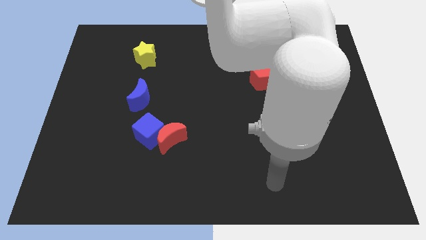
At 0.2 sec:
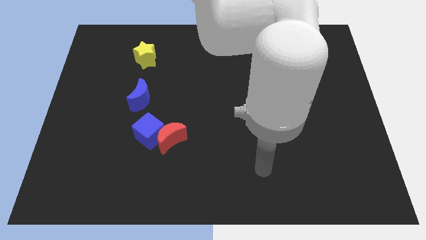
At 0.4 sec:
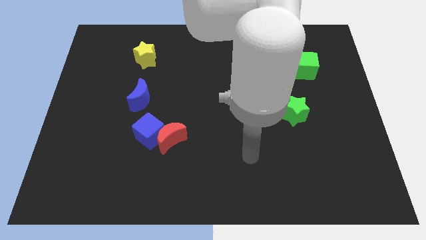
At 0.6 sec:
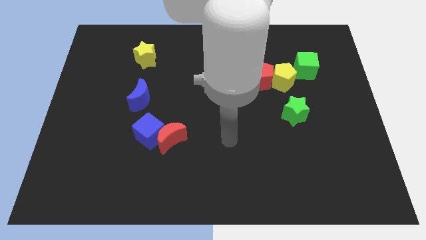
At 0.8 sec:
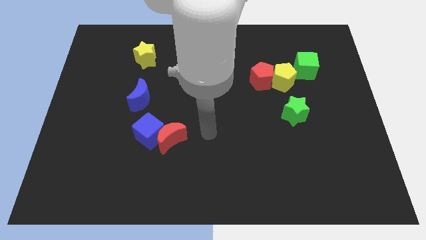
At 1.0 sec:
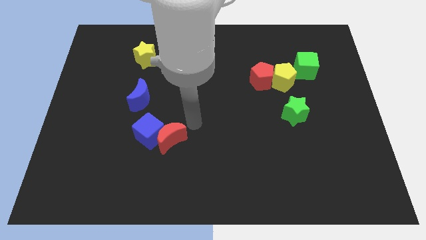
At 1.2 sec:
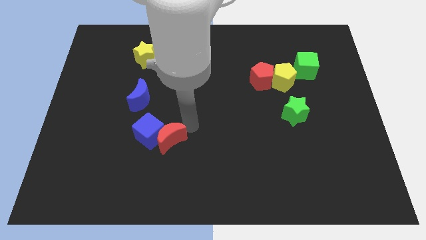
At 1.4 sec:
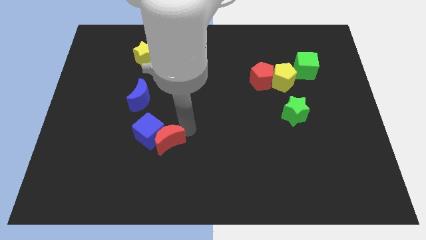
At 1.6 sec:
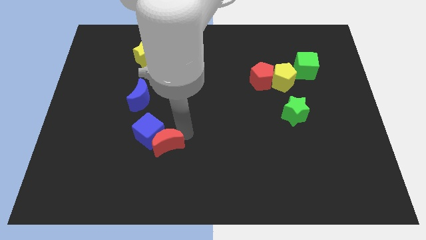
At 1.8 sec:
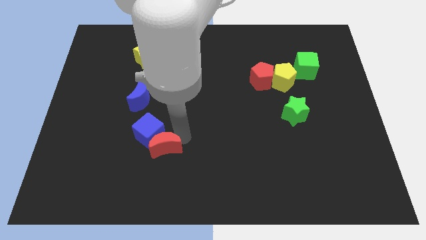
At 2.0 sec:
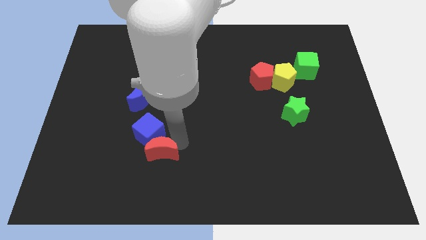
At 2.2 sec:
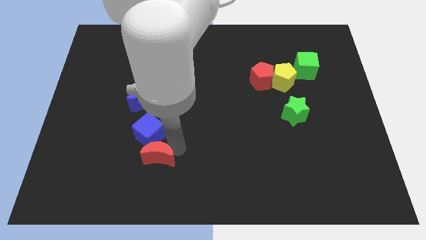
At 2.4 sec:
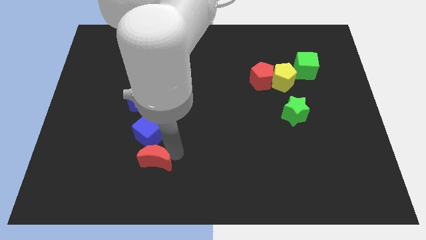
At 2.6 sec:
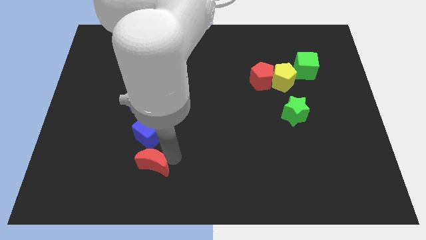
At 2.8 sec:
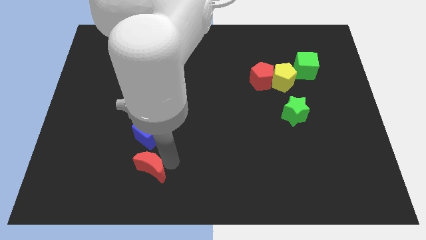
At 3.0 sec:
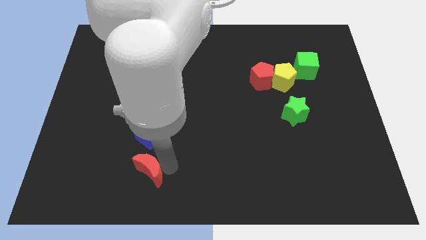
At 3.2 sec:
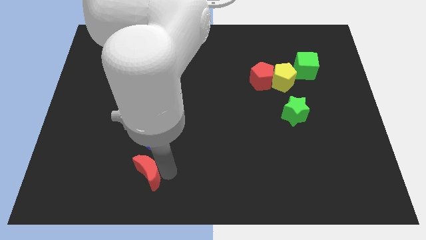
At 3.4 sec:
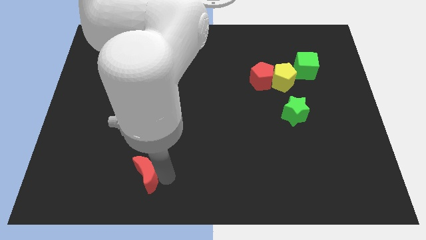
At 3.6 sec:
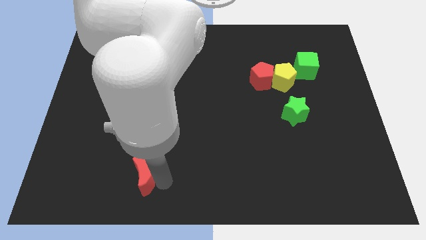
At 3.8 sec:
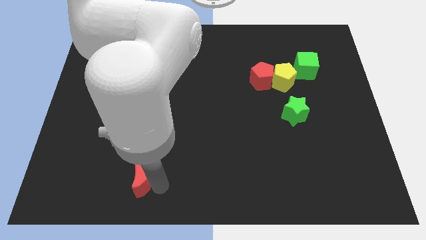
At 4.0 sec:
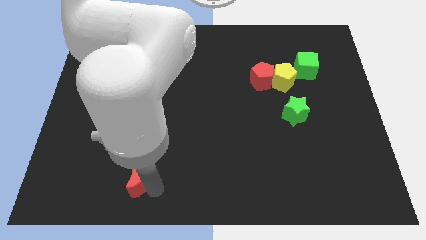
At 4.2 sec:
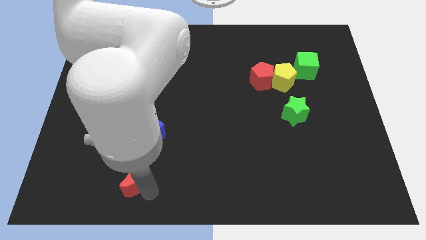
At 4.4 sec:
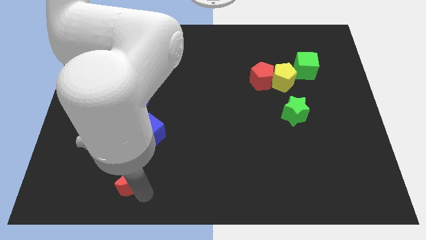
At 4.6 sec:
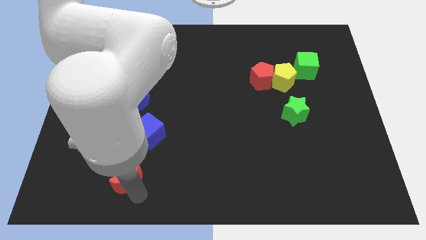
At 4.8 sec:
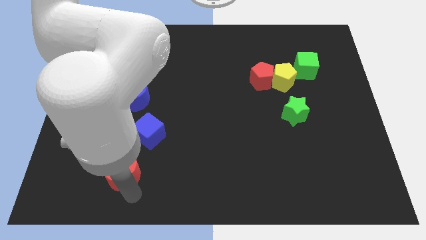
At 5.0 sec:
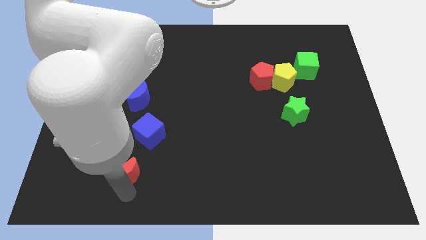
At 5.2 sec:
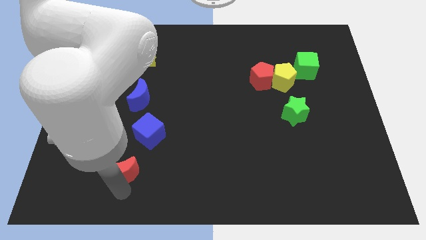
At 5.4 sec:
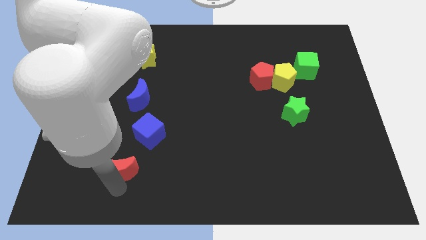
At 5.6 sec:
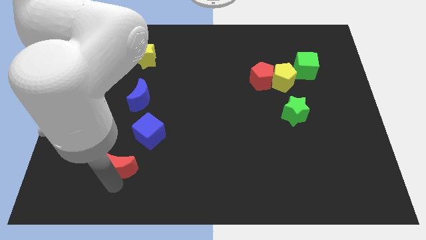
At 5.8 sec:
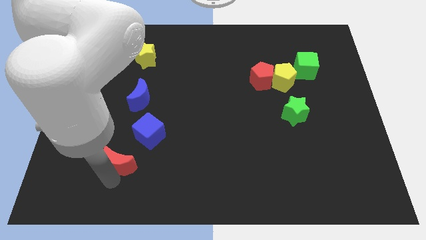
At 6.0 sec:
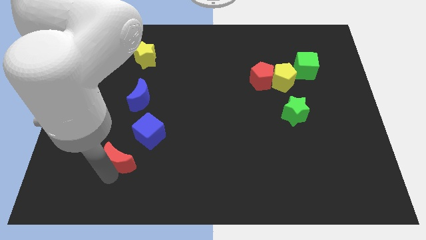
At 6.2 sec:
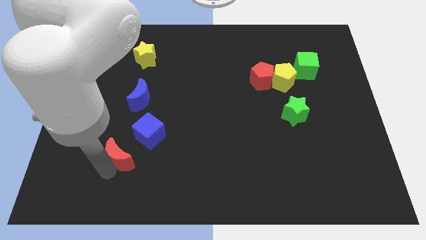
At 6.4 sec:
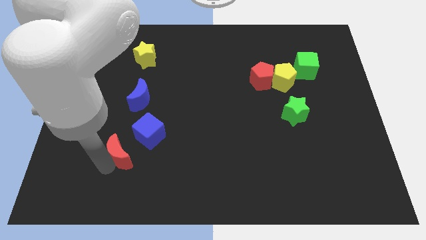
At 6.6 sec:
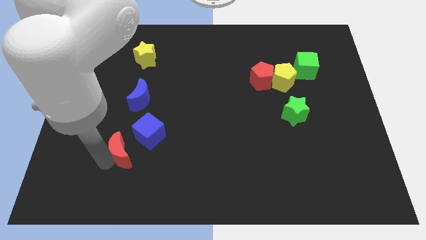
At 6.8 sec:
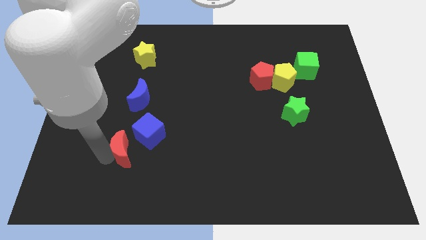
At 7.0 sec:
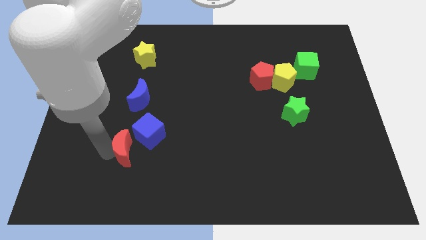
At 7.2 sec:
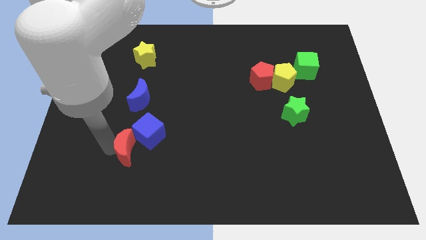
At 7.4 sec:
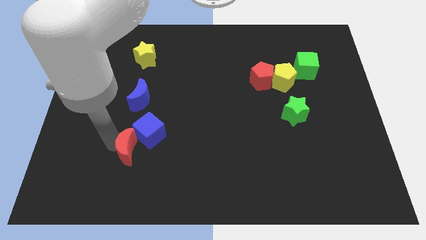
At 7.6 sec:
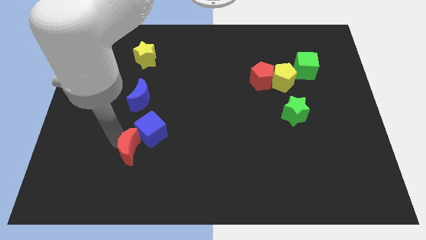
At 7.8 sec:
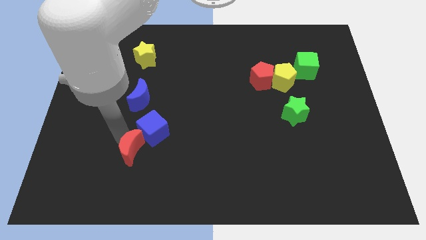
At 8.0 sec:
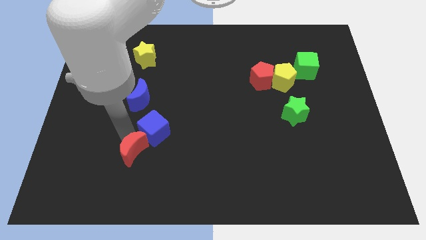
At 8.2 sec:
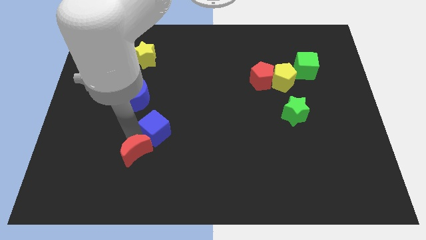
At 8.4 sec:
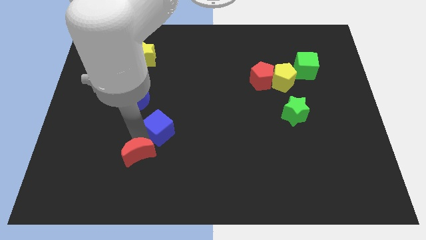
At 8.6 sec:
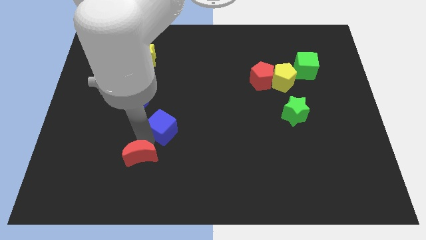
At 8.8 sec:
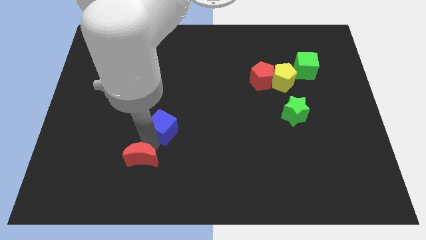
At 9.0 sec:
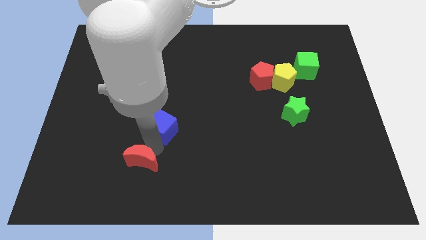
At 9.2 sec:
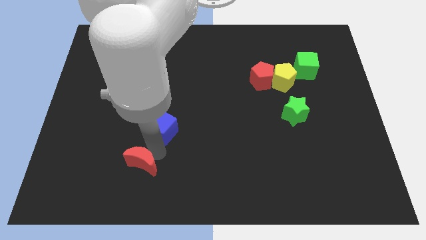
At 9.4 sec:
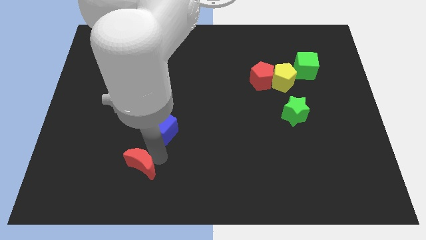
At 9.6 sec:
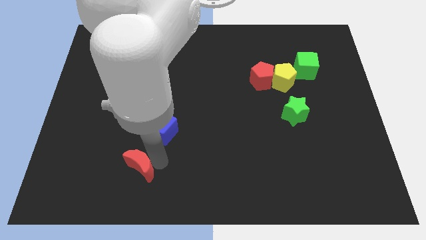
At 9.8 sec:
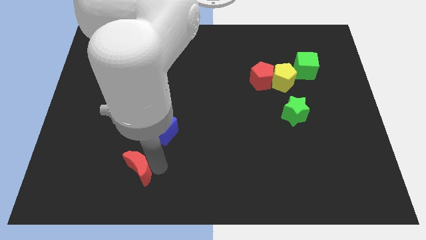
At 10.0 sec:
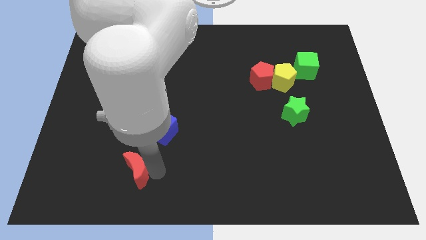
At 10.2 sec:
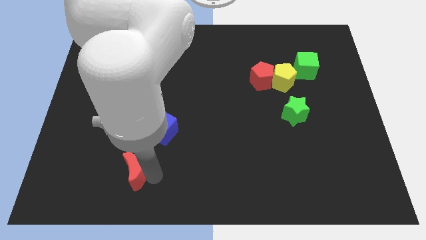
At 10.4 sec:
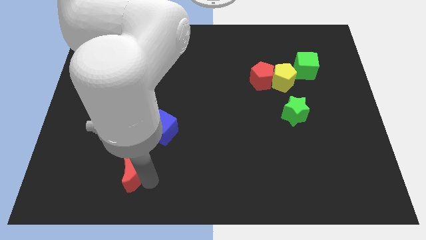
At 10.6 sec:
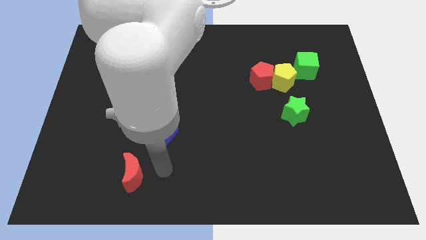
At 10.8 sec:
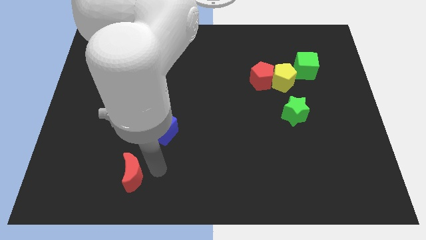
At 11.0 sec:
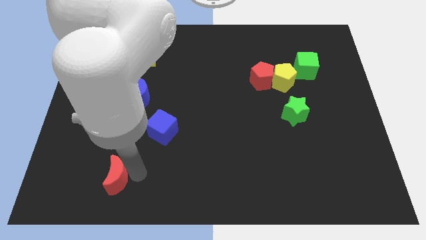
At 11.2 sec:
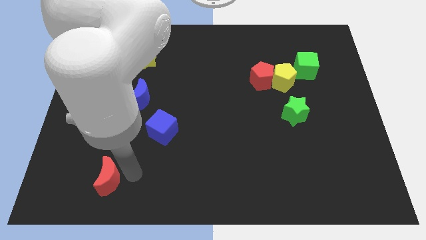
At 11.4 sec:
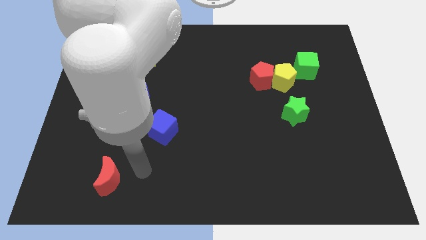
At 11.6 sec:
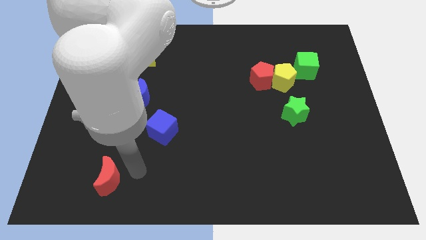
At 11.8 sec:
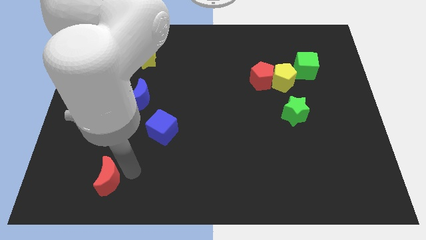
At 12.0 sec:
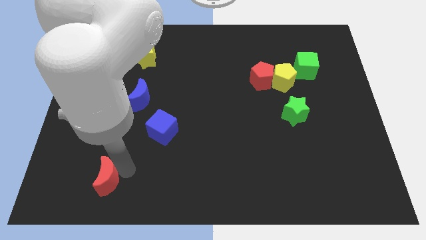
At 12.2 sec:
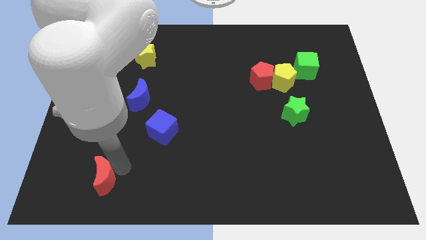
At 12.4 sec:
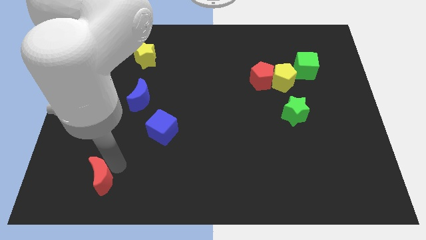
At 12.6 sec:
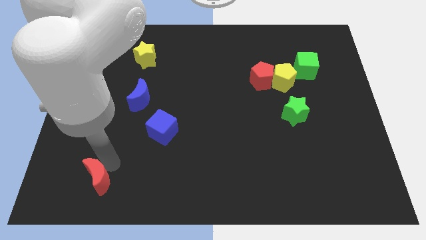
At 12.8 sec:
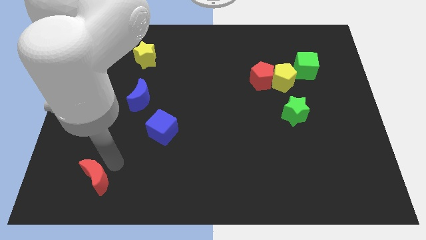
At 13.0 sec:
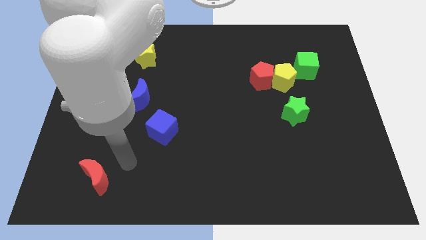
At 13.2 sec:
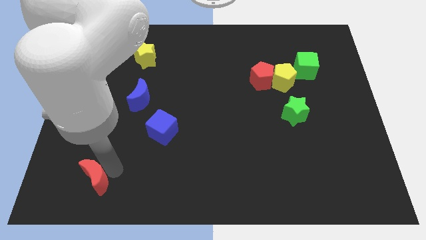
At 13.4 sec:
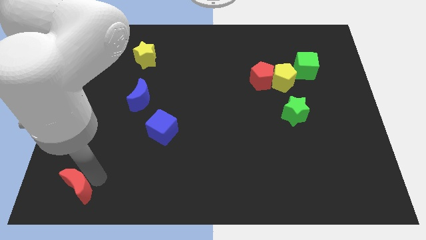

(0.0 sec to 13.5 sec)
put the red moon to the bottom left of the board
